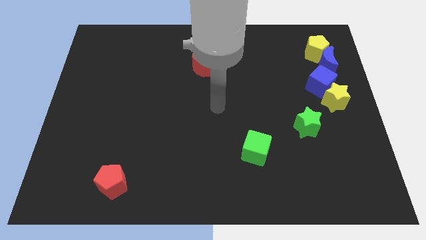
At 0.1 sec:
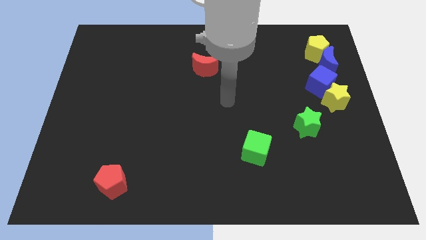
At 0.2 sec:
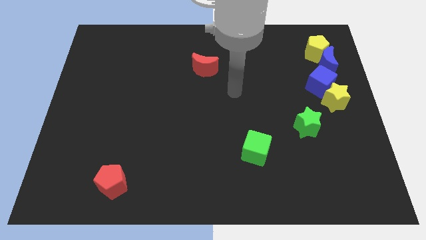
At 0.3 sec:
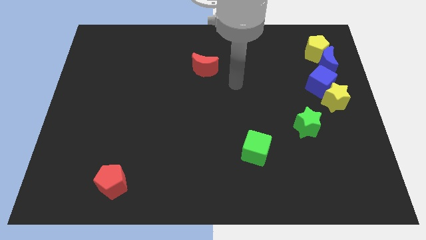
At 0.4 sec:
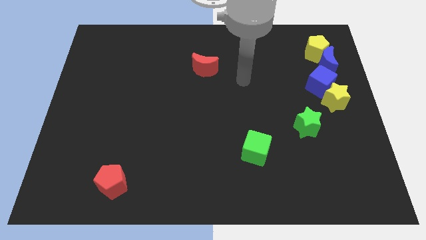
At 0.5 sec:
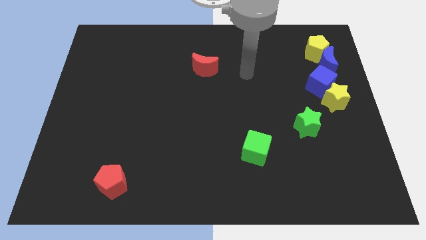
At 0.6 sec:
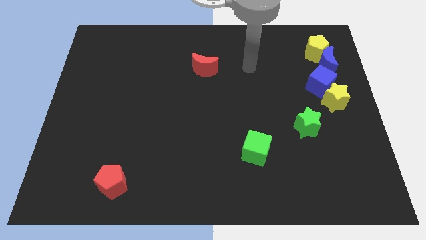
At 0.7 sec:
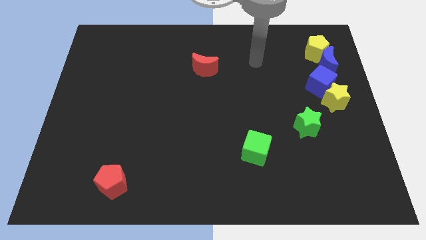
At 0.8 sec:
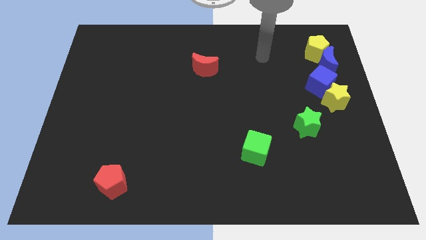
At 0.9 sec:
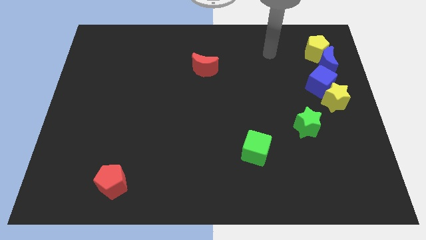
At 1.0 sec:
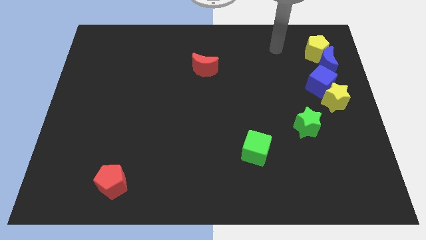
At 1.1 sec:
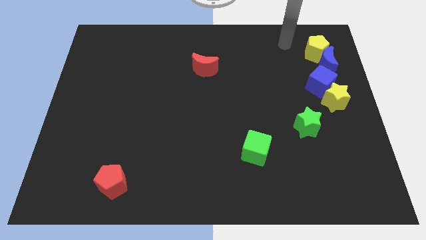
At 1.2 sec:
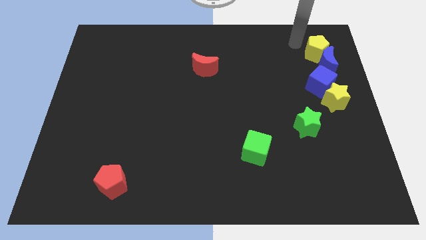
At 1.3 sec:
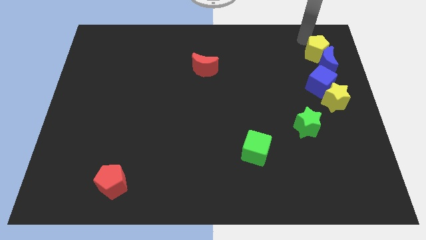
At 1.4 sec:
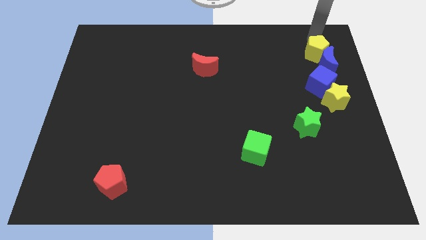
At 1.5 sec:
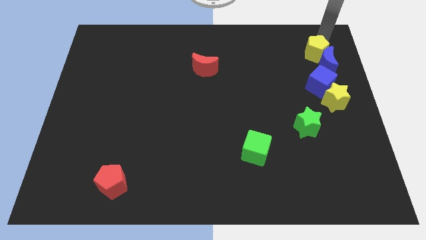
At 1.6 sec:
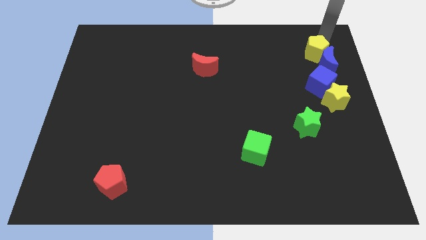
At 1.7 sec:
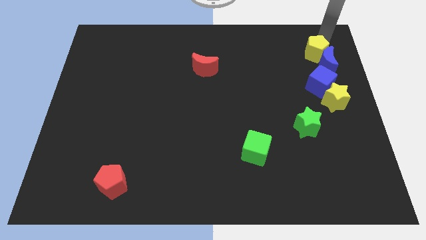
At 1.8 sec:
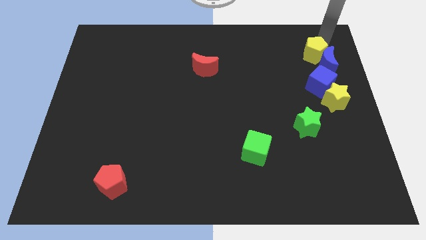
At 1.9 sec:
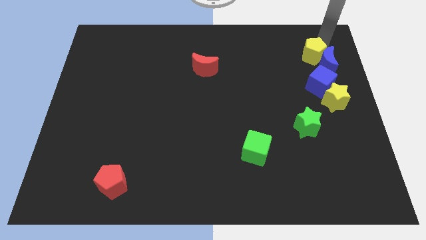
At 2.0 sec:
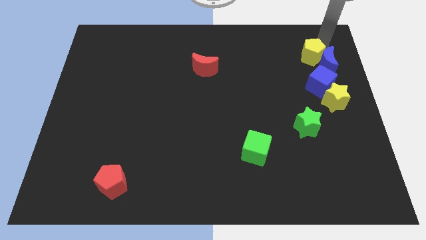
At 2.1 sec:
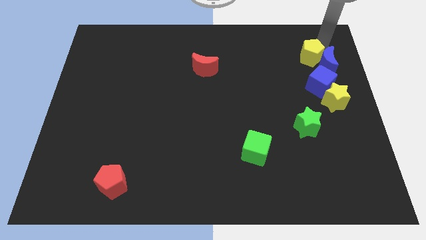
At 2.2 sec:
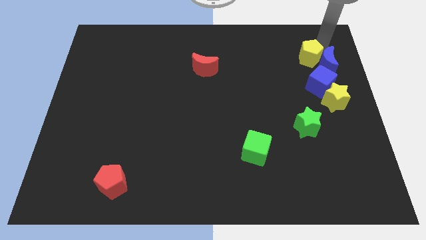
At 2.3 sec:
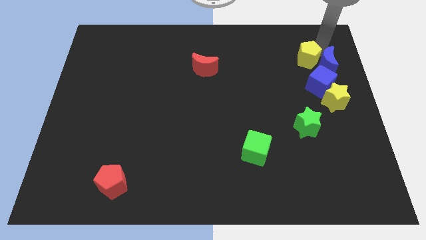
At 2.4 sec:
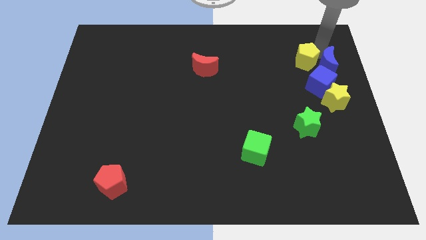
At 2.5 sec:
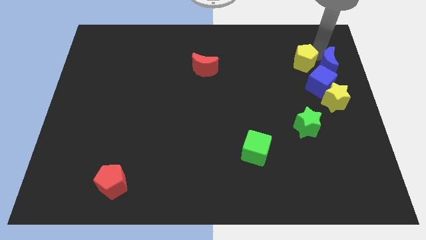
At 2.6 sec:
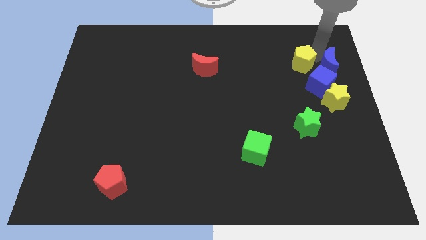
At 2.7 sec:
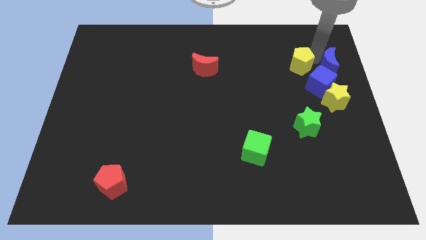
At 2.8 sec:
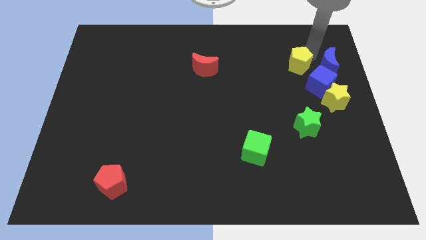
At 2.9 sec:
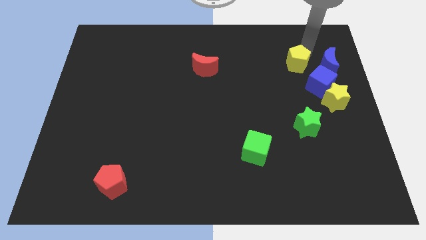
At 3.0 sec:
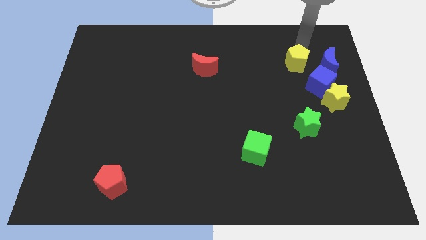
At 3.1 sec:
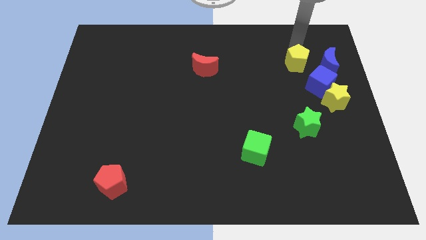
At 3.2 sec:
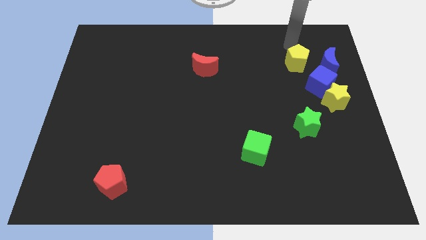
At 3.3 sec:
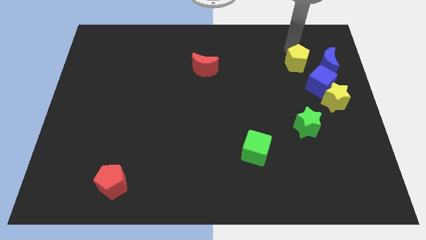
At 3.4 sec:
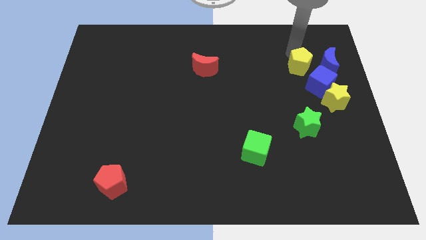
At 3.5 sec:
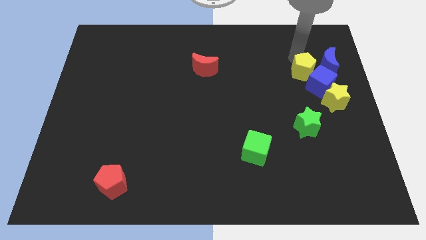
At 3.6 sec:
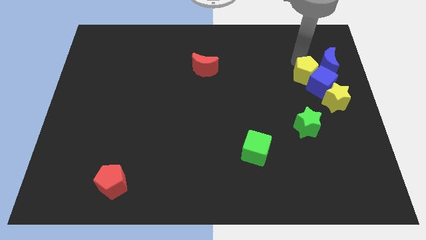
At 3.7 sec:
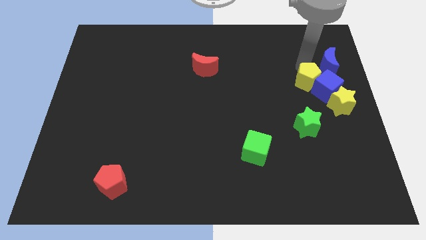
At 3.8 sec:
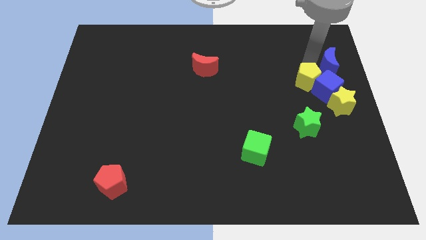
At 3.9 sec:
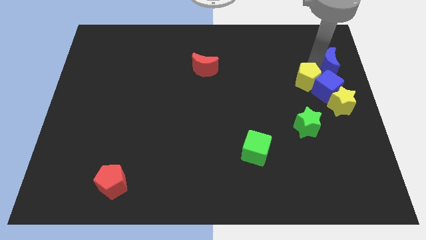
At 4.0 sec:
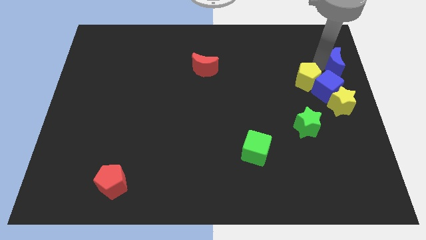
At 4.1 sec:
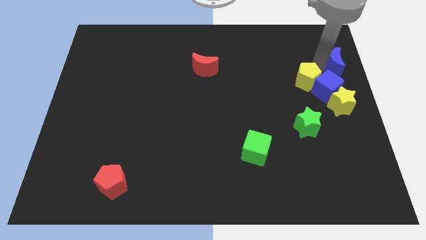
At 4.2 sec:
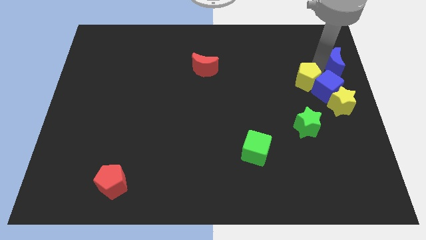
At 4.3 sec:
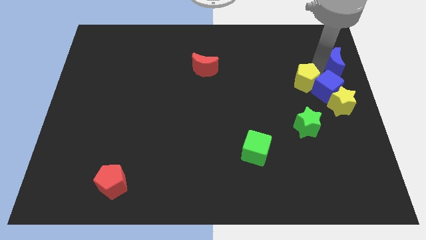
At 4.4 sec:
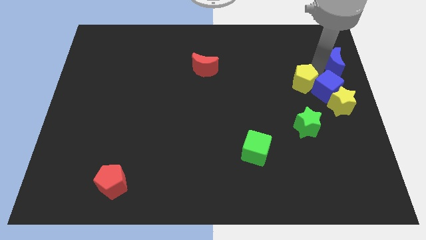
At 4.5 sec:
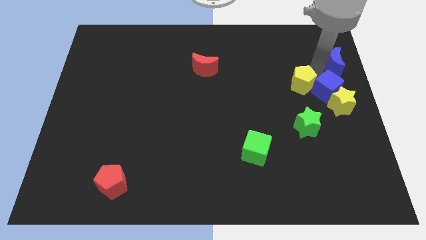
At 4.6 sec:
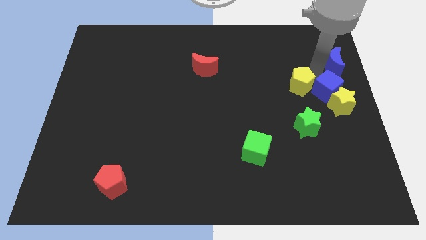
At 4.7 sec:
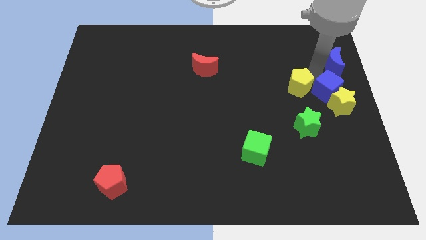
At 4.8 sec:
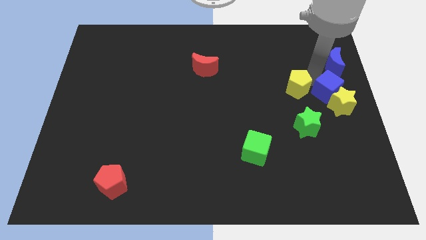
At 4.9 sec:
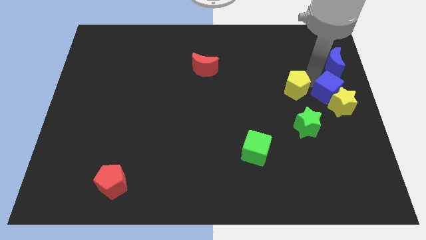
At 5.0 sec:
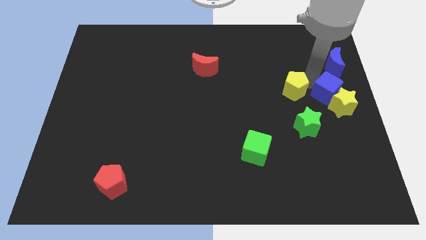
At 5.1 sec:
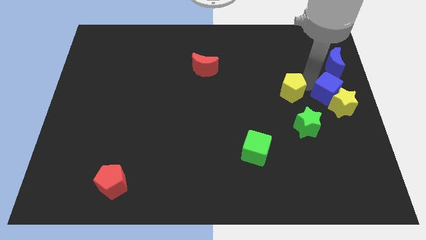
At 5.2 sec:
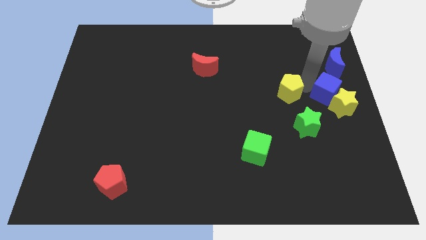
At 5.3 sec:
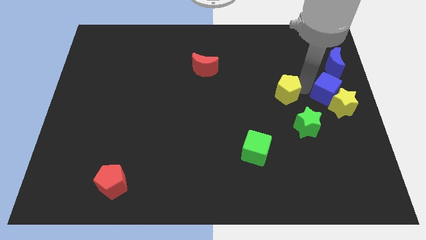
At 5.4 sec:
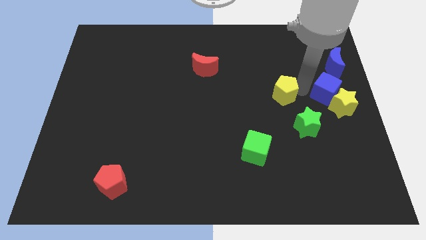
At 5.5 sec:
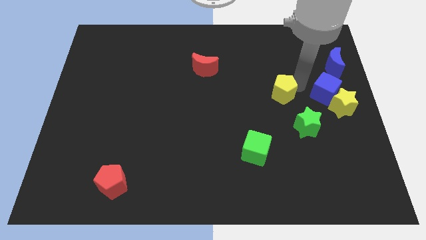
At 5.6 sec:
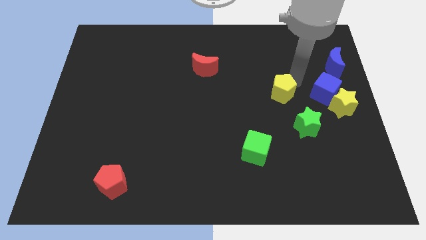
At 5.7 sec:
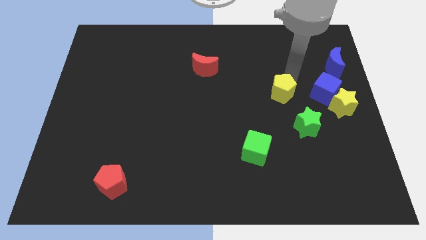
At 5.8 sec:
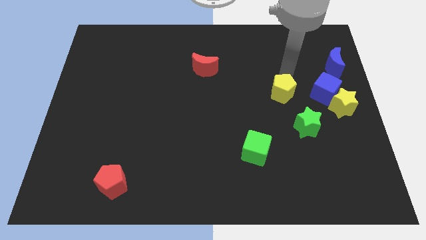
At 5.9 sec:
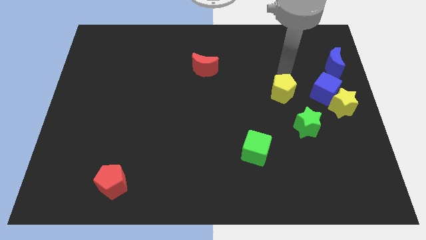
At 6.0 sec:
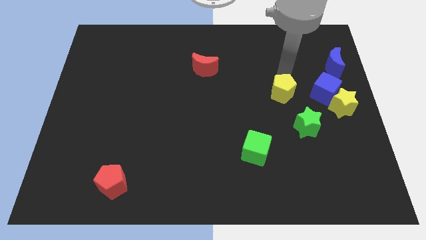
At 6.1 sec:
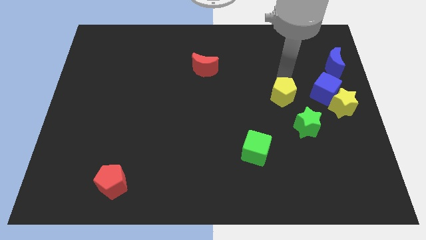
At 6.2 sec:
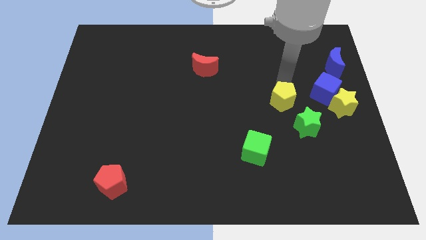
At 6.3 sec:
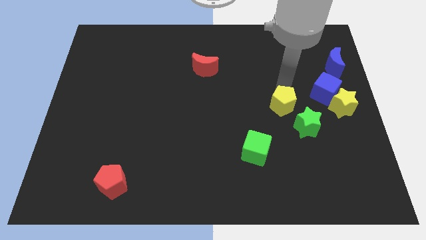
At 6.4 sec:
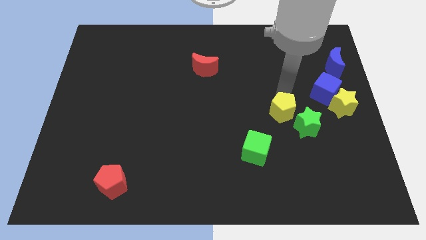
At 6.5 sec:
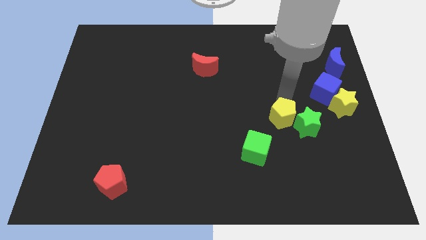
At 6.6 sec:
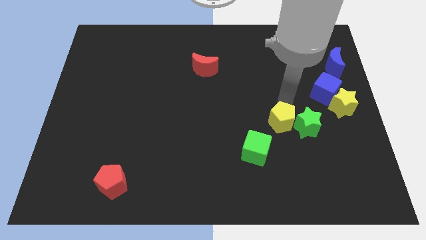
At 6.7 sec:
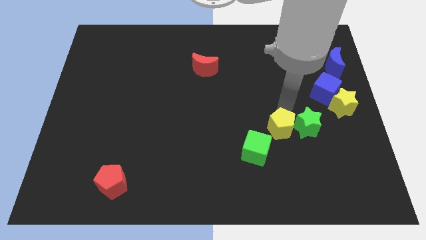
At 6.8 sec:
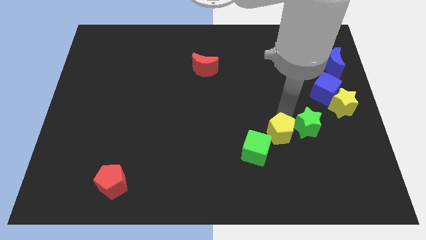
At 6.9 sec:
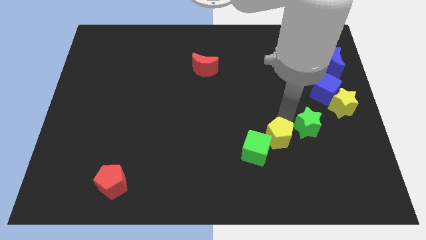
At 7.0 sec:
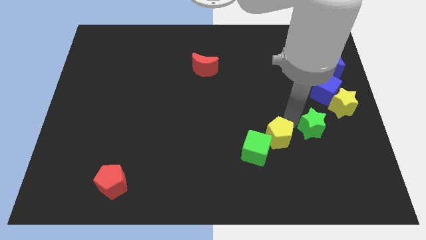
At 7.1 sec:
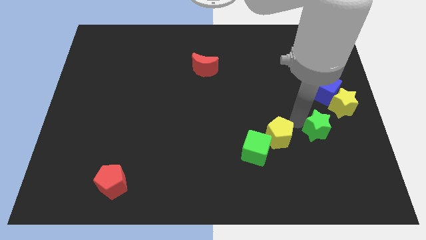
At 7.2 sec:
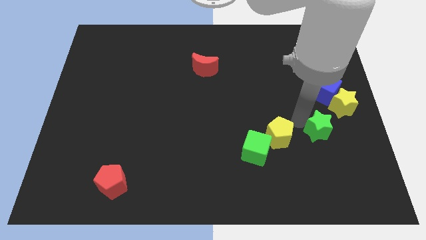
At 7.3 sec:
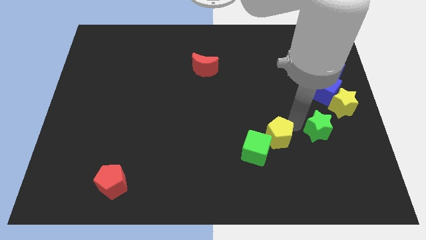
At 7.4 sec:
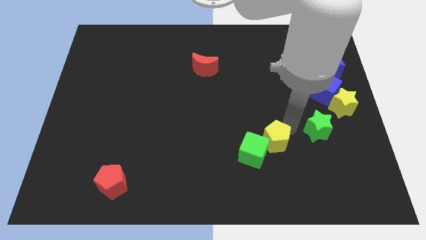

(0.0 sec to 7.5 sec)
push the yellow pentagon towards the green cube
